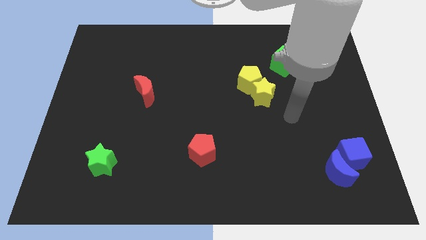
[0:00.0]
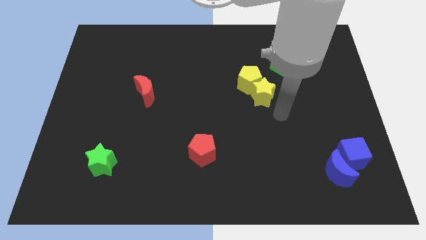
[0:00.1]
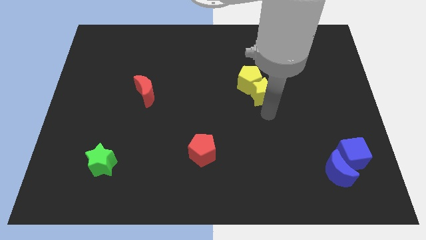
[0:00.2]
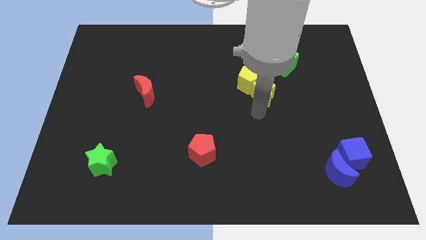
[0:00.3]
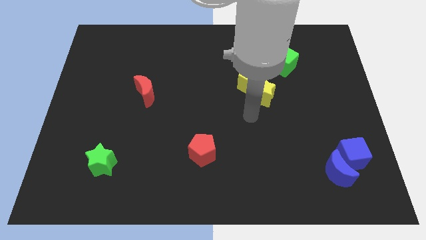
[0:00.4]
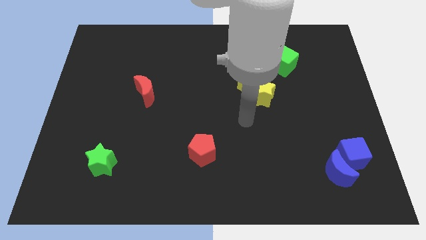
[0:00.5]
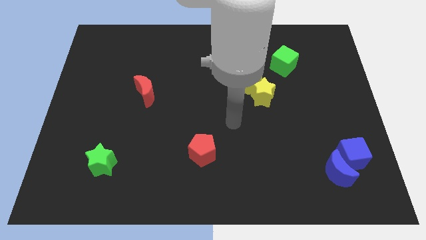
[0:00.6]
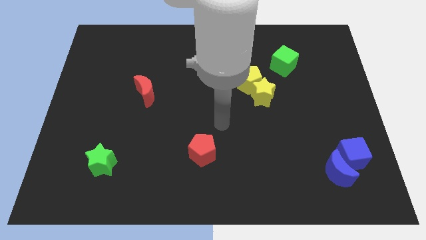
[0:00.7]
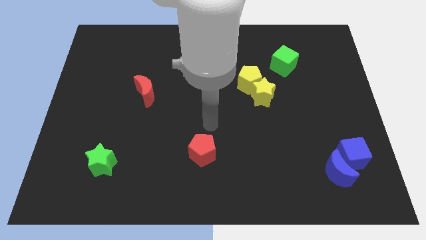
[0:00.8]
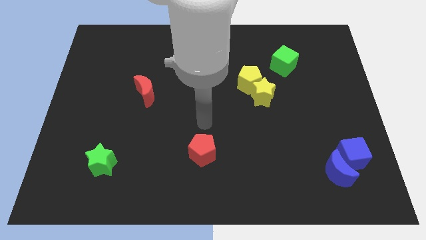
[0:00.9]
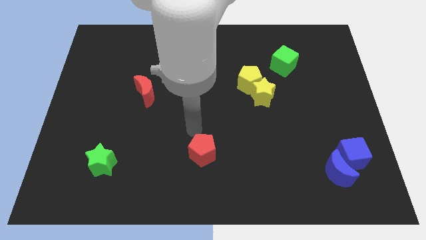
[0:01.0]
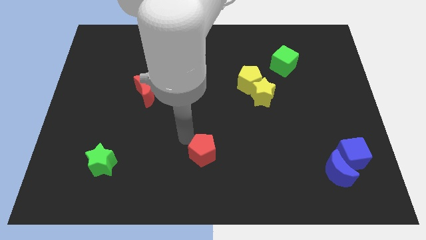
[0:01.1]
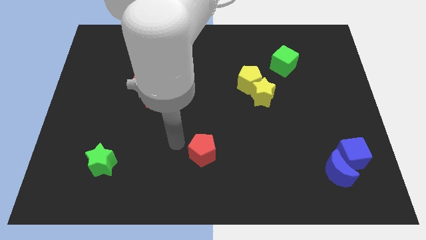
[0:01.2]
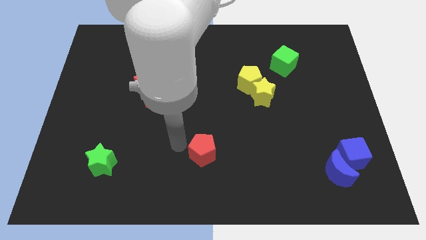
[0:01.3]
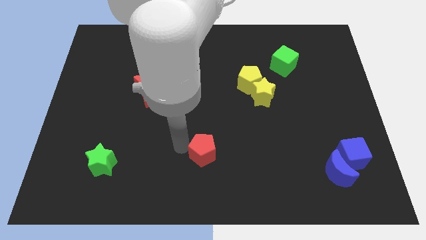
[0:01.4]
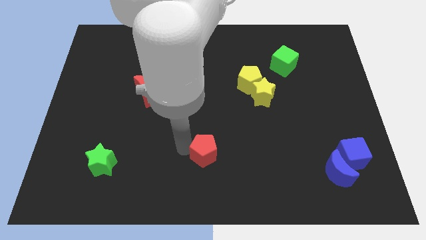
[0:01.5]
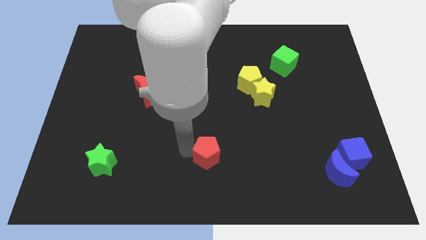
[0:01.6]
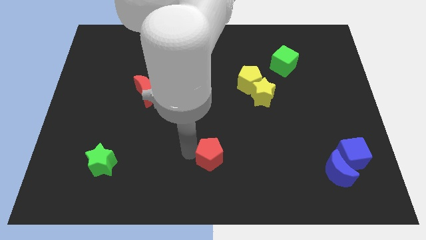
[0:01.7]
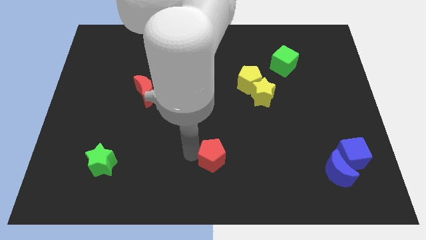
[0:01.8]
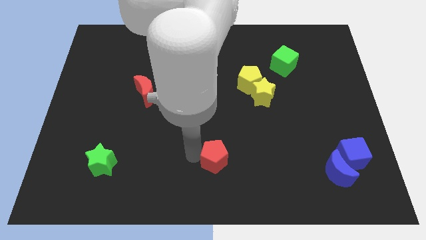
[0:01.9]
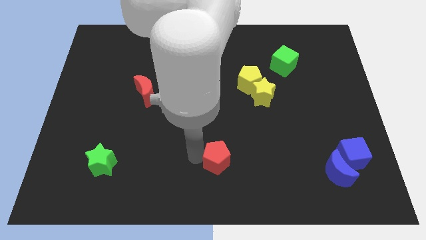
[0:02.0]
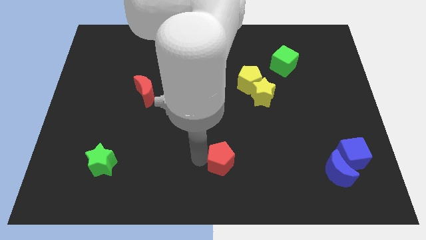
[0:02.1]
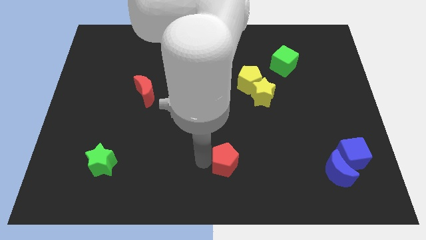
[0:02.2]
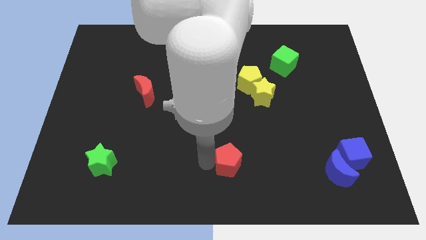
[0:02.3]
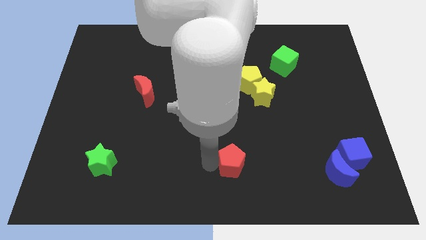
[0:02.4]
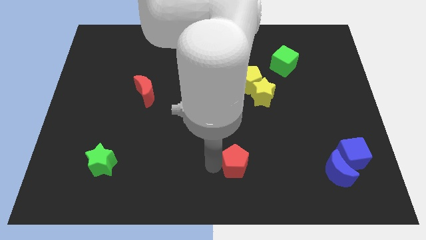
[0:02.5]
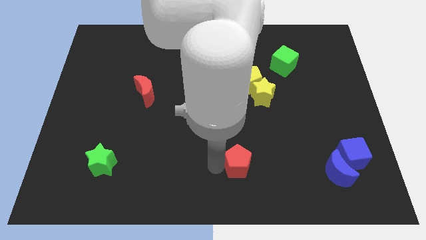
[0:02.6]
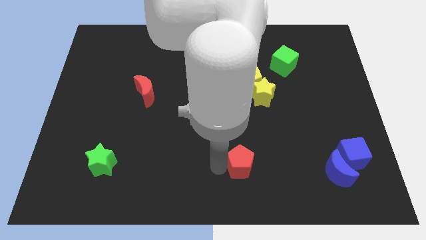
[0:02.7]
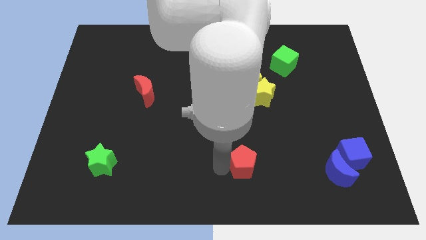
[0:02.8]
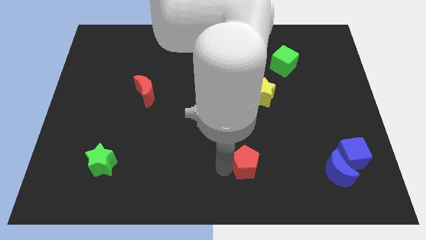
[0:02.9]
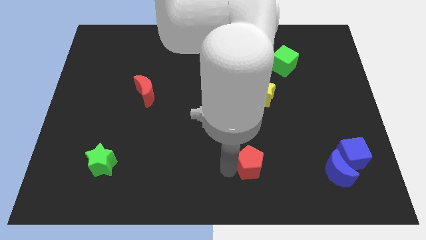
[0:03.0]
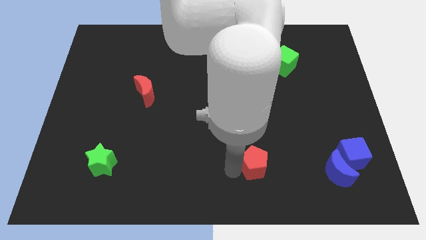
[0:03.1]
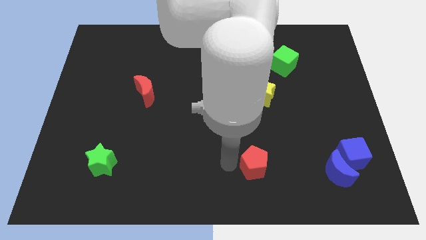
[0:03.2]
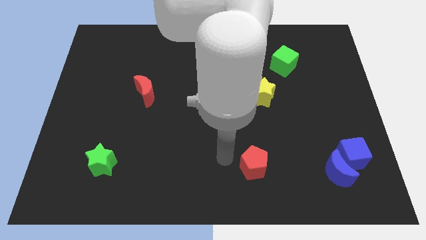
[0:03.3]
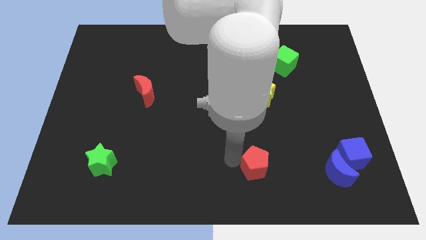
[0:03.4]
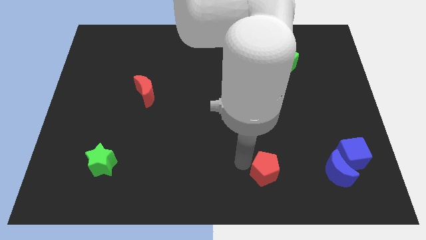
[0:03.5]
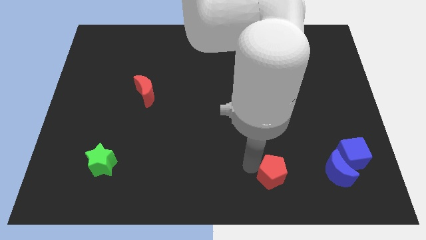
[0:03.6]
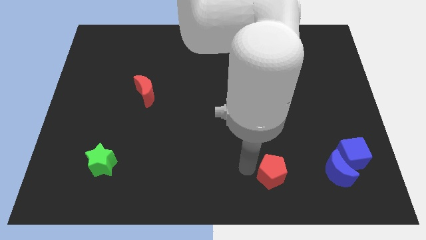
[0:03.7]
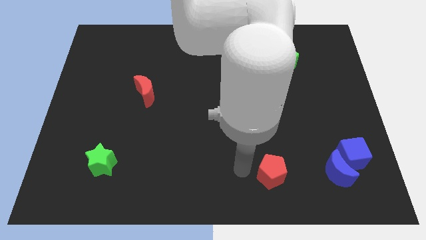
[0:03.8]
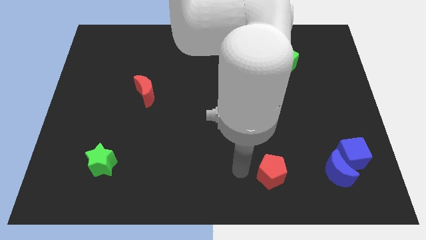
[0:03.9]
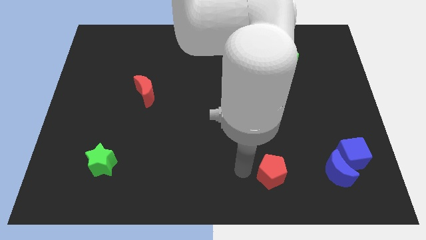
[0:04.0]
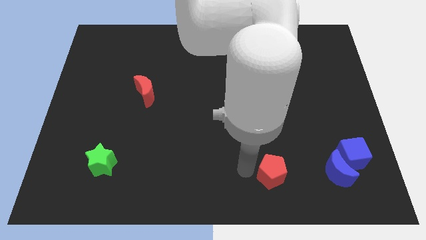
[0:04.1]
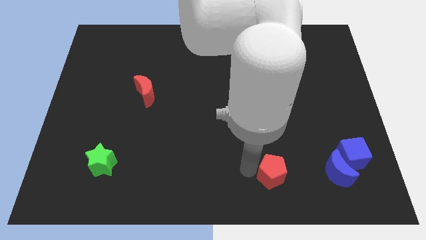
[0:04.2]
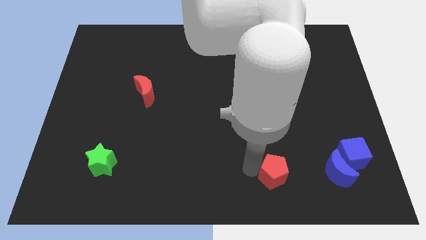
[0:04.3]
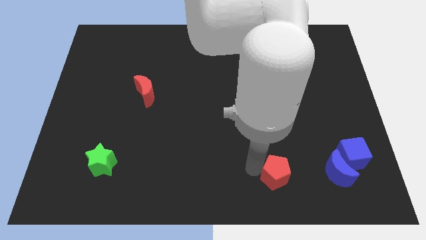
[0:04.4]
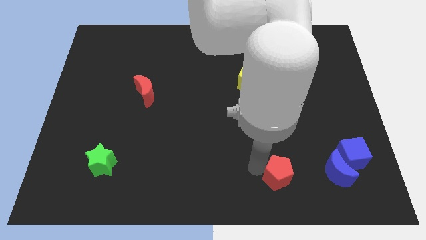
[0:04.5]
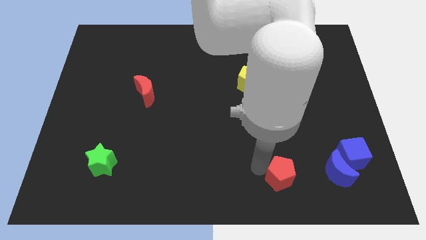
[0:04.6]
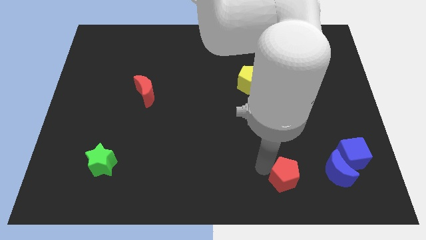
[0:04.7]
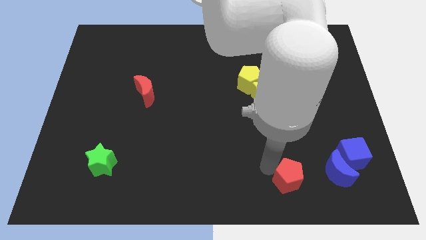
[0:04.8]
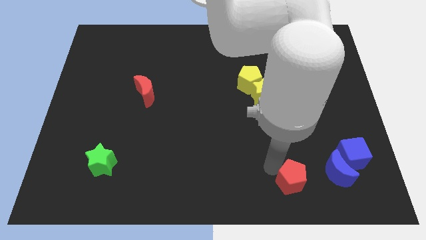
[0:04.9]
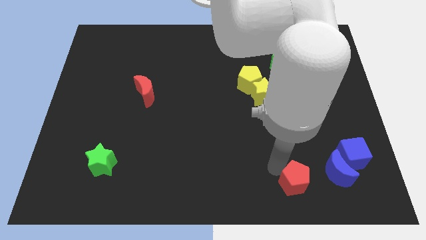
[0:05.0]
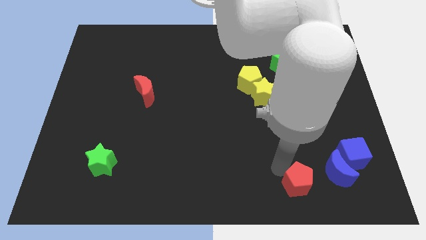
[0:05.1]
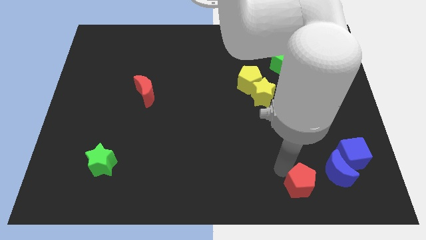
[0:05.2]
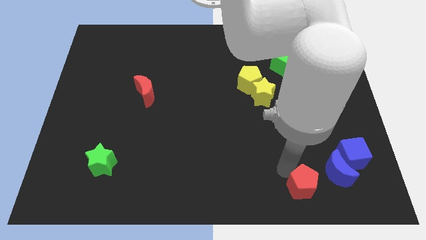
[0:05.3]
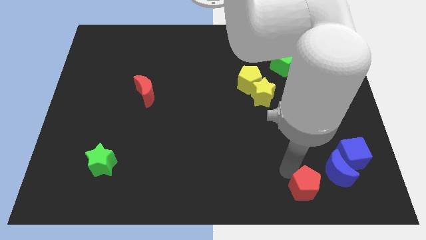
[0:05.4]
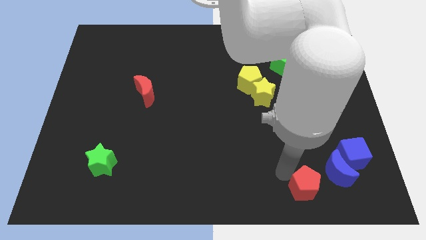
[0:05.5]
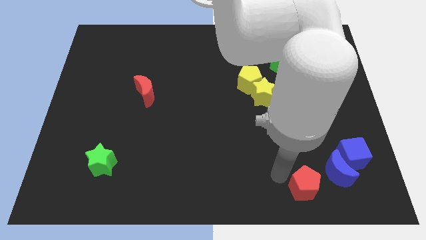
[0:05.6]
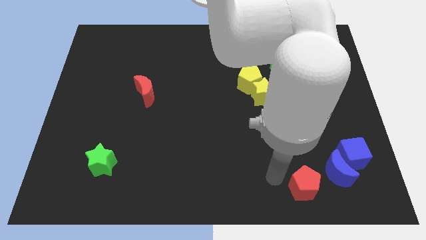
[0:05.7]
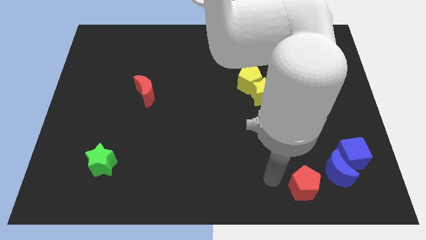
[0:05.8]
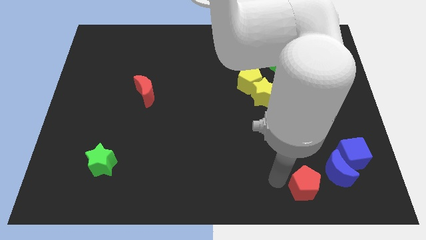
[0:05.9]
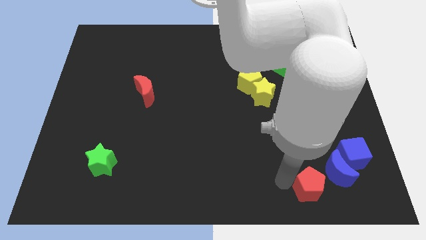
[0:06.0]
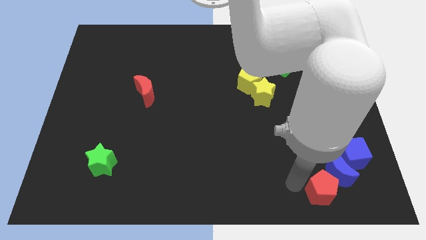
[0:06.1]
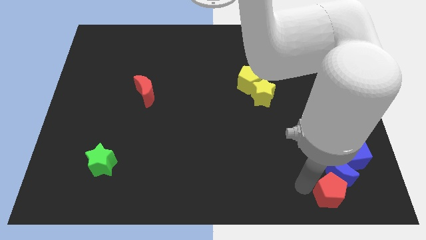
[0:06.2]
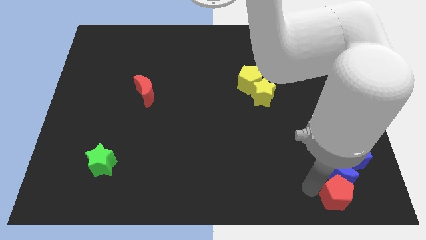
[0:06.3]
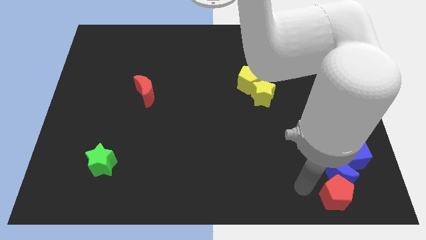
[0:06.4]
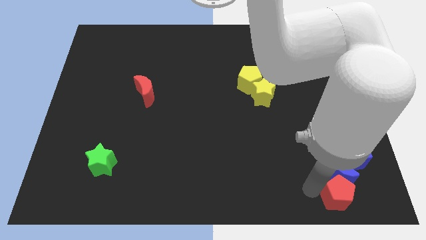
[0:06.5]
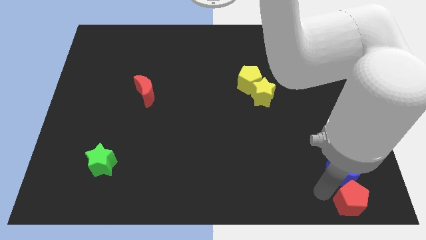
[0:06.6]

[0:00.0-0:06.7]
put the red pentagon to the bottom right corner
